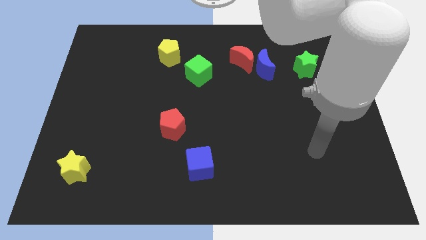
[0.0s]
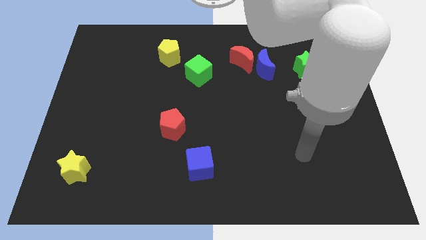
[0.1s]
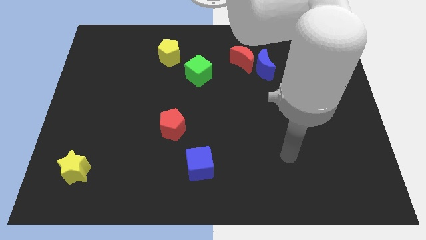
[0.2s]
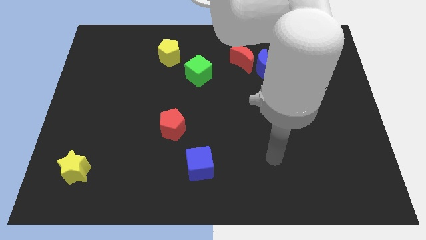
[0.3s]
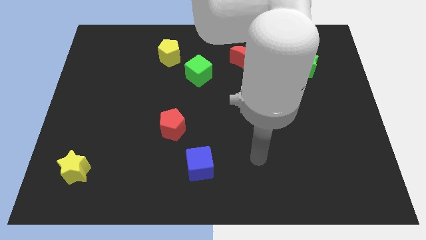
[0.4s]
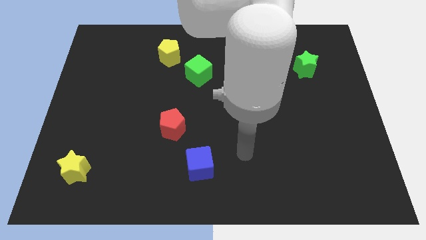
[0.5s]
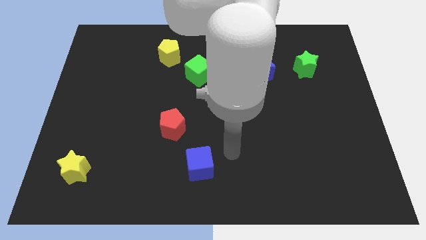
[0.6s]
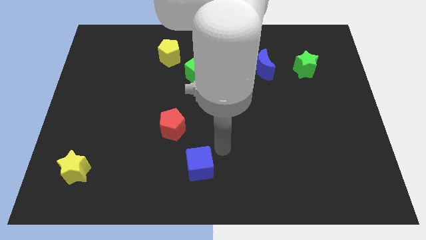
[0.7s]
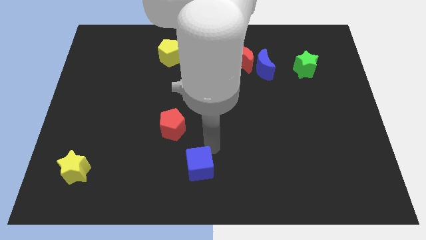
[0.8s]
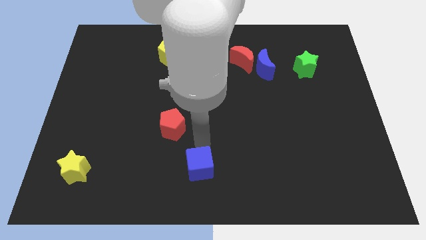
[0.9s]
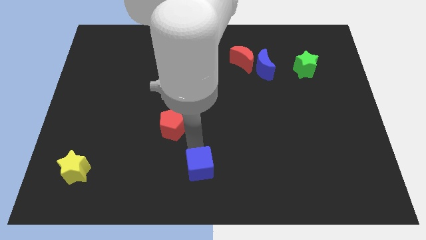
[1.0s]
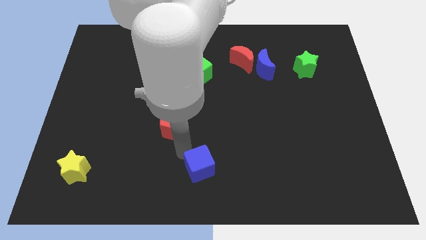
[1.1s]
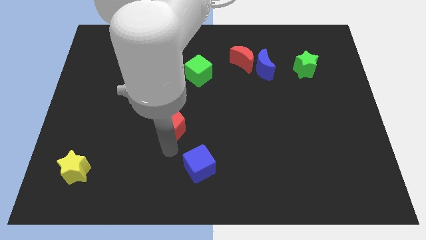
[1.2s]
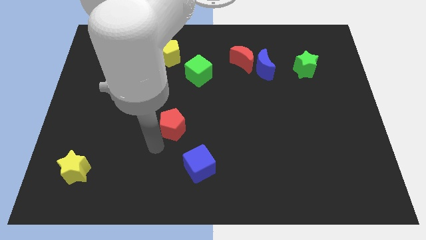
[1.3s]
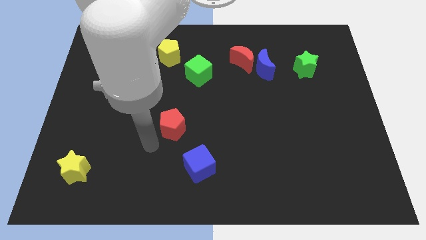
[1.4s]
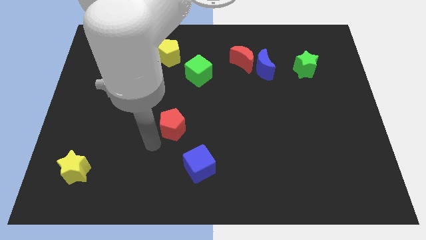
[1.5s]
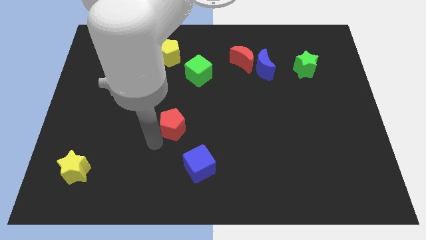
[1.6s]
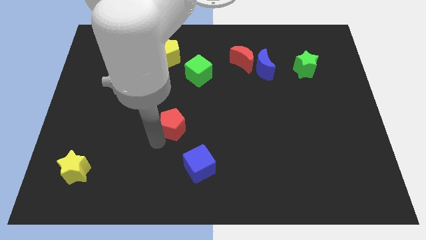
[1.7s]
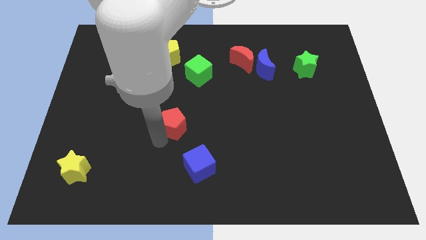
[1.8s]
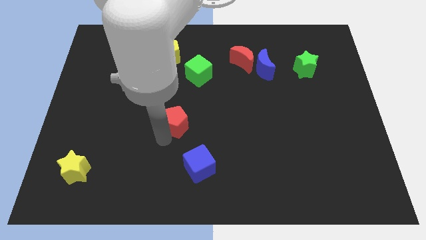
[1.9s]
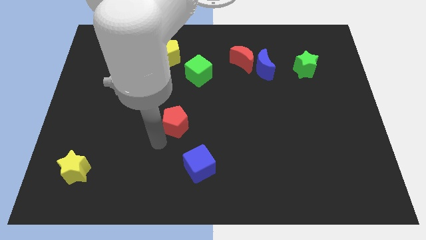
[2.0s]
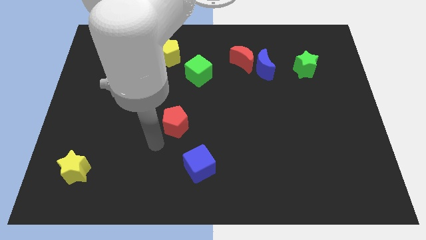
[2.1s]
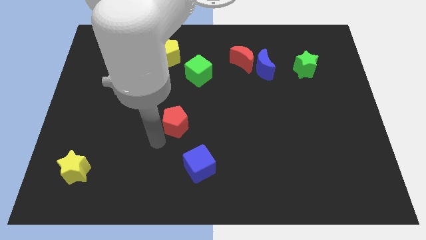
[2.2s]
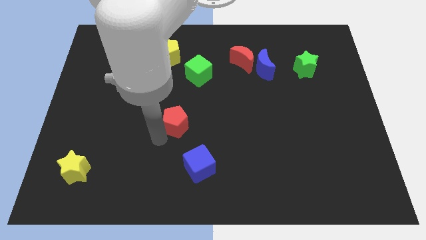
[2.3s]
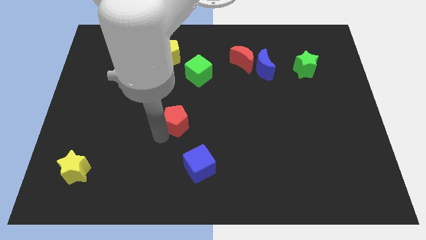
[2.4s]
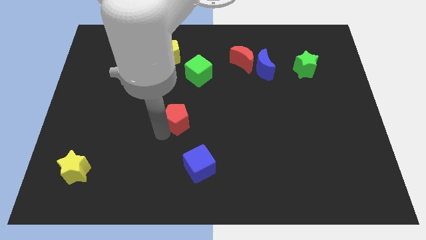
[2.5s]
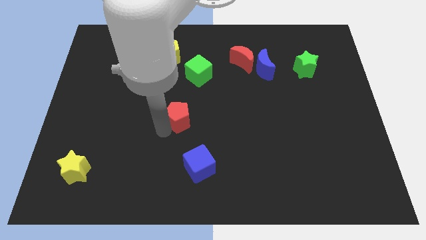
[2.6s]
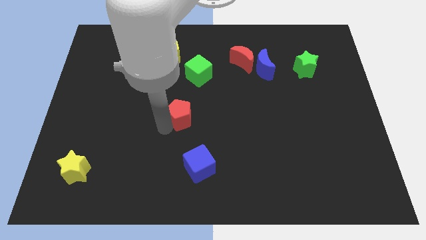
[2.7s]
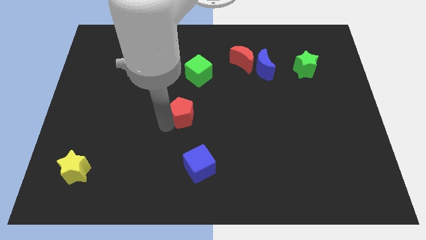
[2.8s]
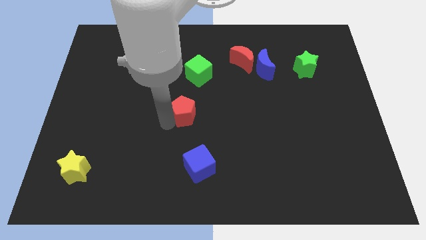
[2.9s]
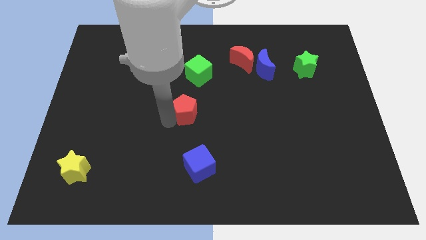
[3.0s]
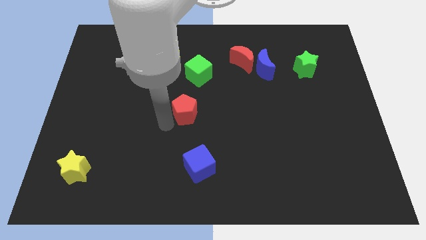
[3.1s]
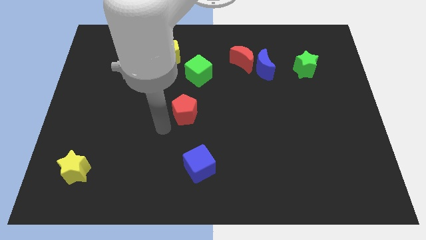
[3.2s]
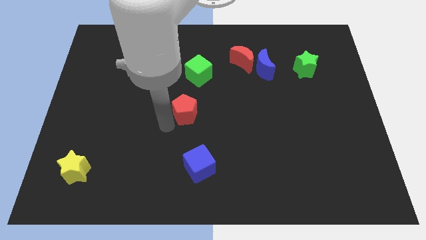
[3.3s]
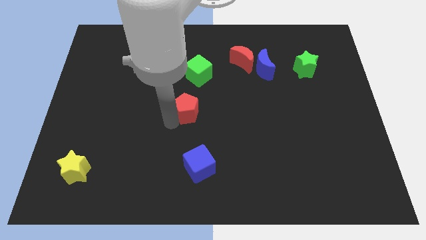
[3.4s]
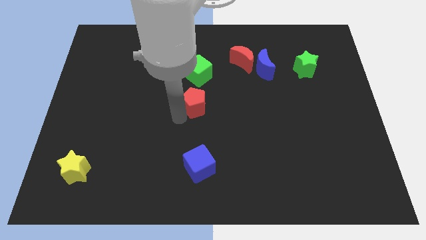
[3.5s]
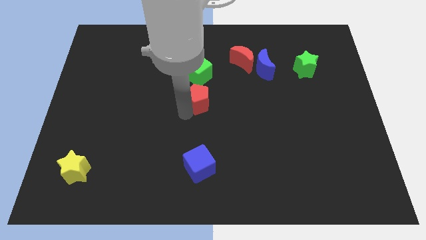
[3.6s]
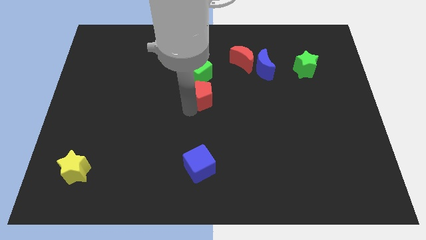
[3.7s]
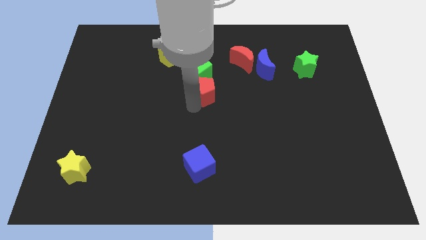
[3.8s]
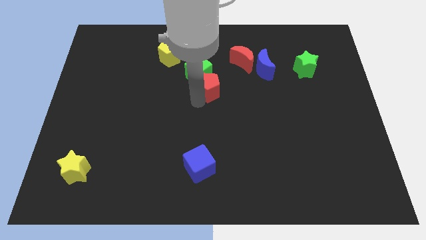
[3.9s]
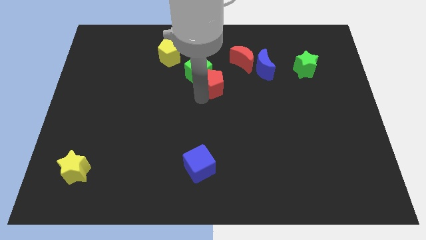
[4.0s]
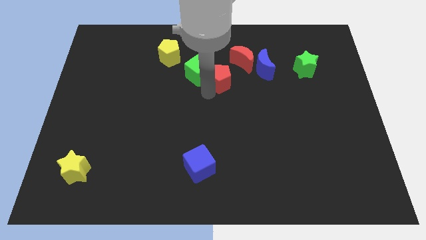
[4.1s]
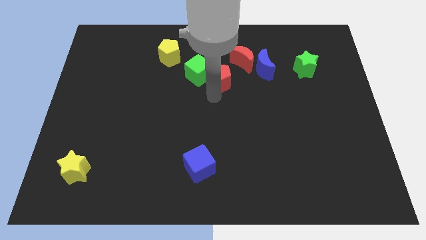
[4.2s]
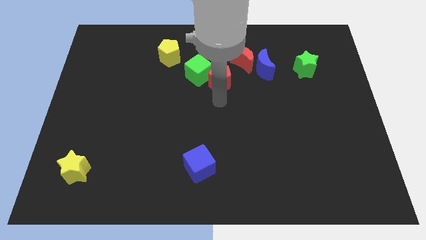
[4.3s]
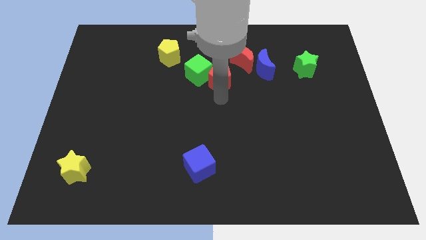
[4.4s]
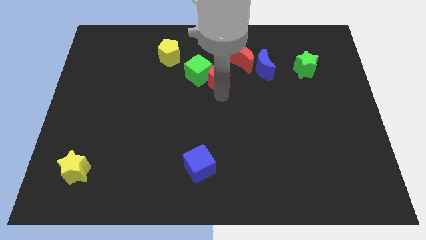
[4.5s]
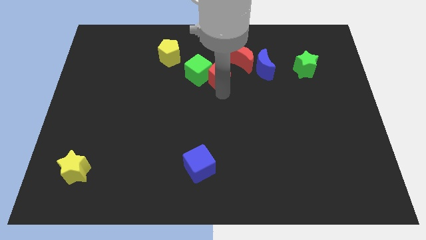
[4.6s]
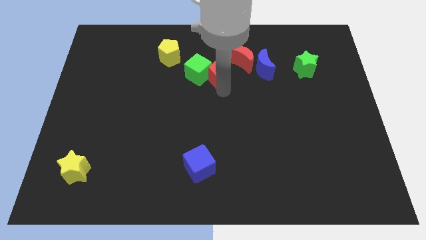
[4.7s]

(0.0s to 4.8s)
push the red pentagon diagonally up and to the right of the green cube

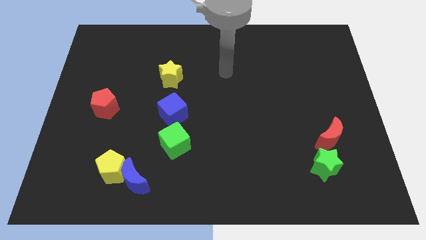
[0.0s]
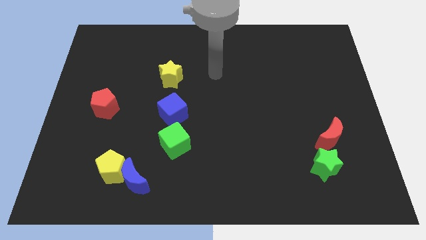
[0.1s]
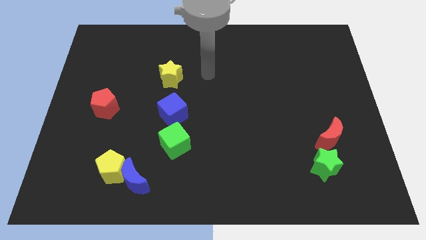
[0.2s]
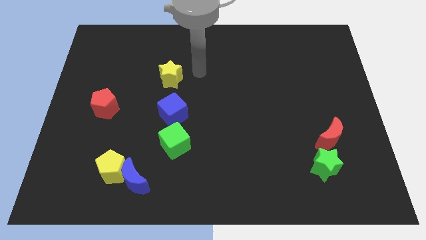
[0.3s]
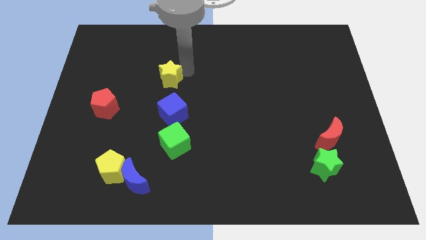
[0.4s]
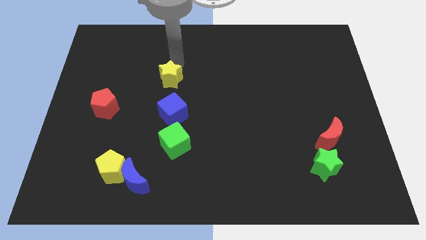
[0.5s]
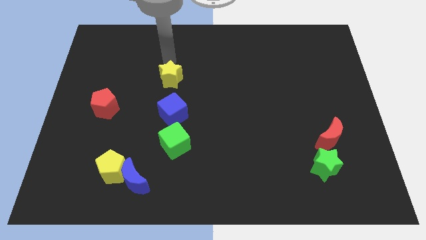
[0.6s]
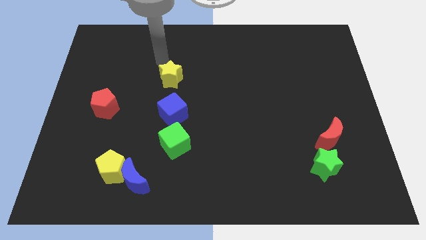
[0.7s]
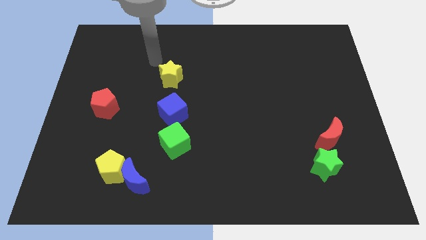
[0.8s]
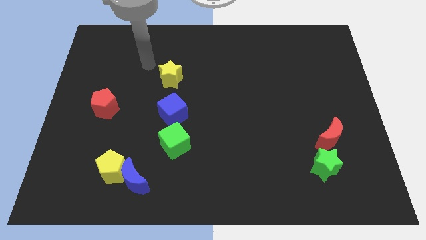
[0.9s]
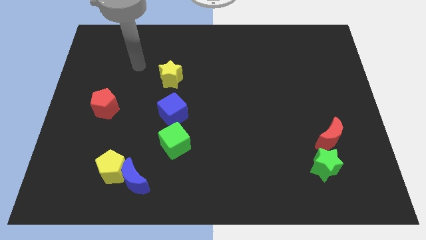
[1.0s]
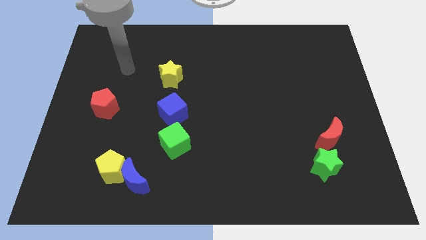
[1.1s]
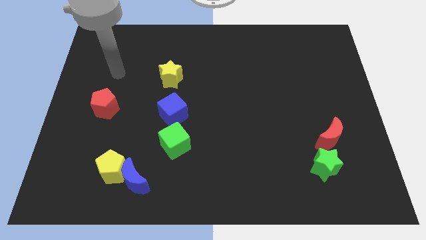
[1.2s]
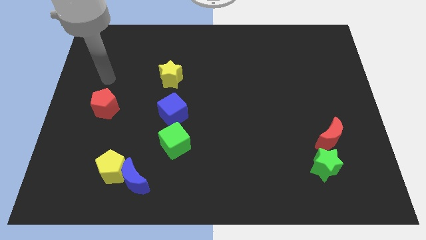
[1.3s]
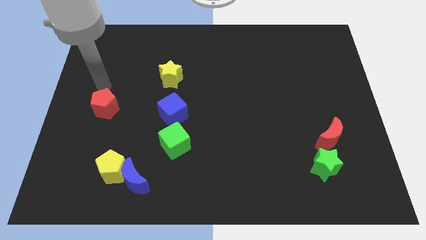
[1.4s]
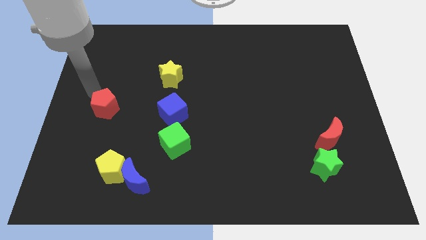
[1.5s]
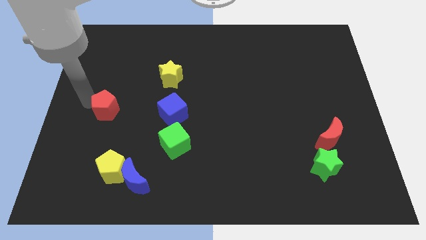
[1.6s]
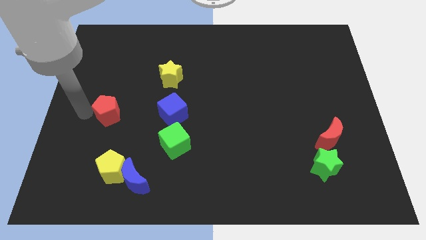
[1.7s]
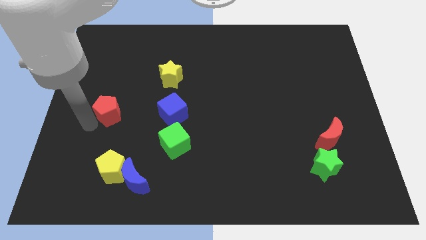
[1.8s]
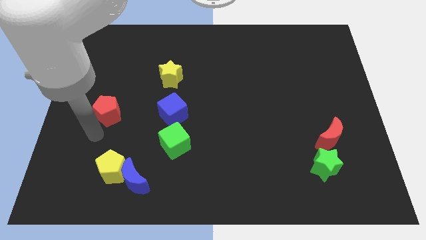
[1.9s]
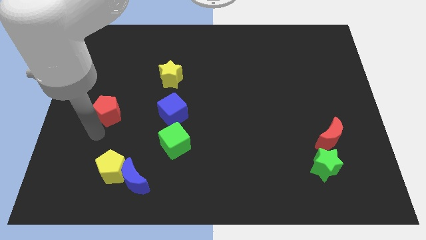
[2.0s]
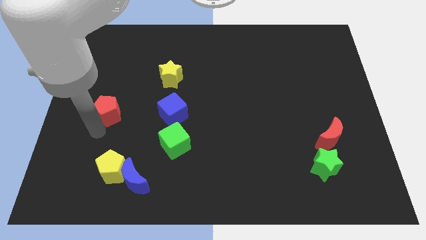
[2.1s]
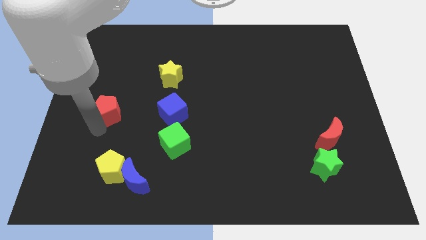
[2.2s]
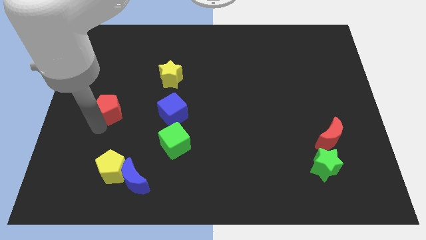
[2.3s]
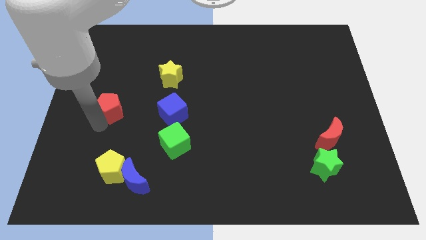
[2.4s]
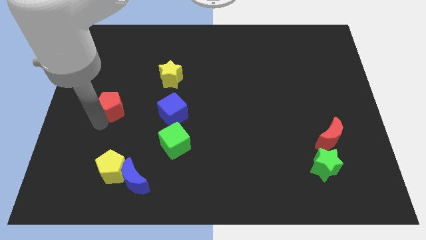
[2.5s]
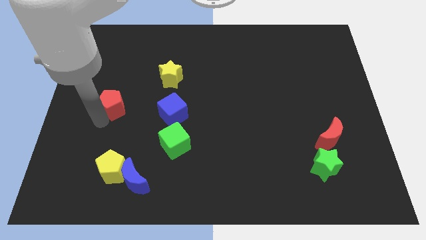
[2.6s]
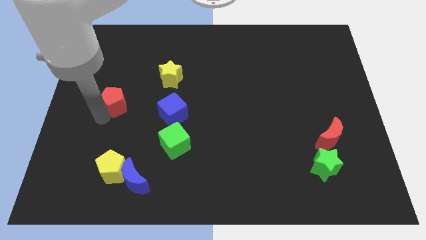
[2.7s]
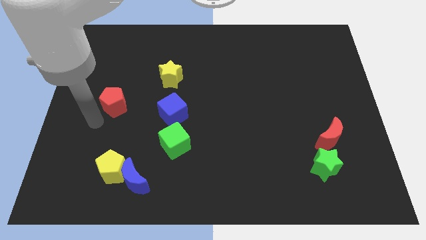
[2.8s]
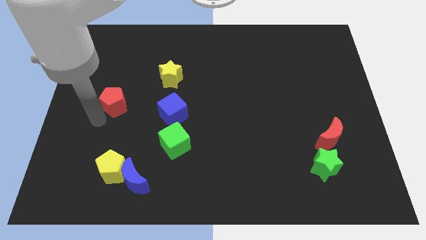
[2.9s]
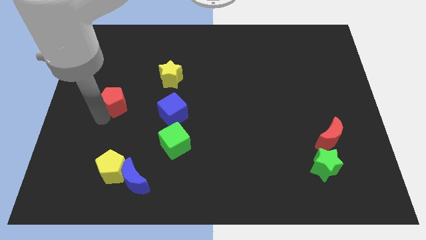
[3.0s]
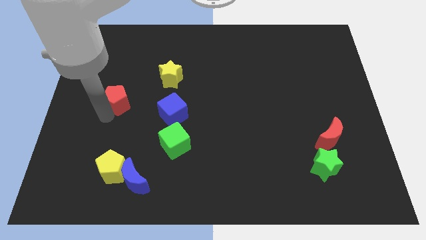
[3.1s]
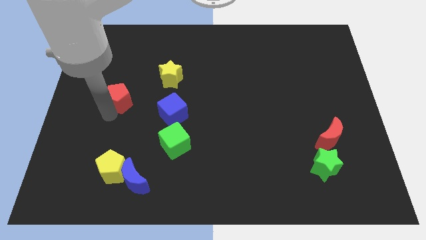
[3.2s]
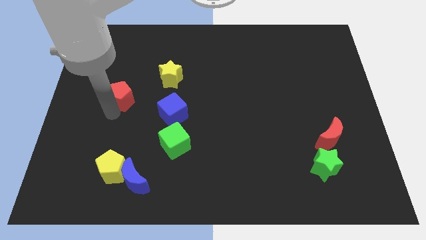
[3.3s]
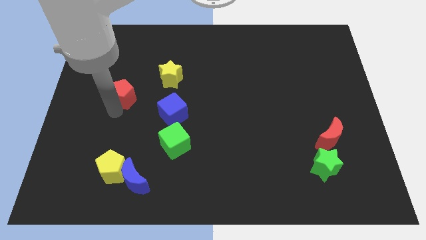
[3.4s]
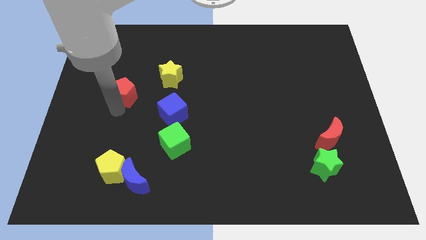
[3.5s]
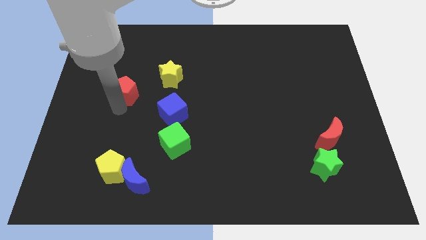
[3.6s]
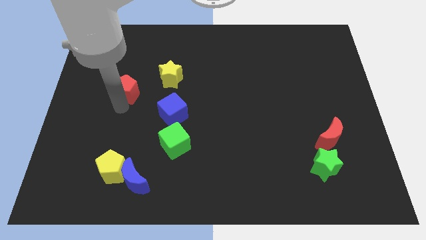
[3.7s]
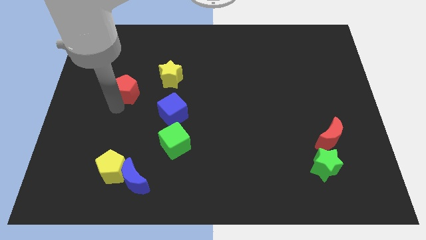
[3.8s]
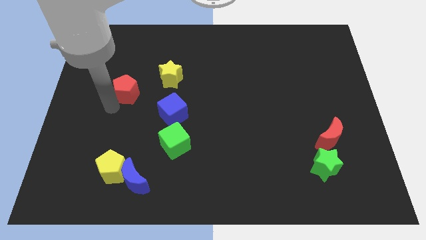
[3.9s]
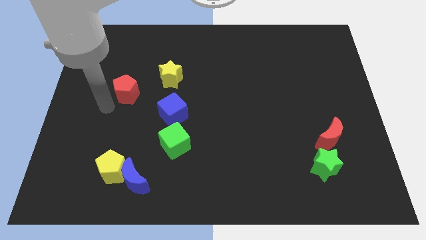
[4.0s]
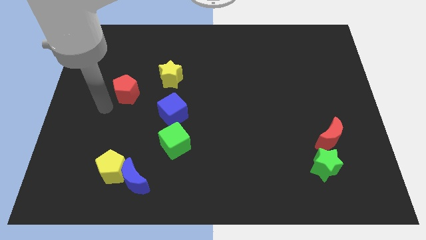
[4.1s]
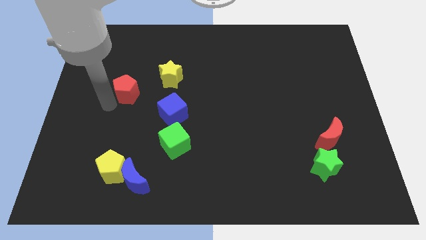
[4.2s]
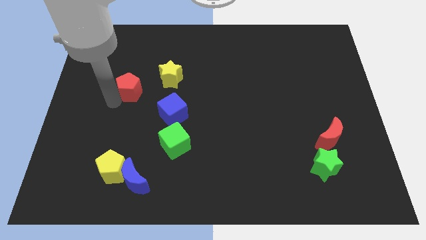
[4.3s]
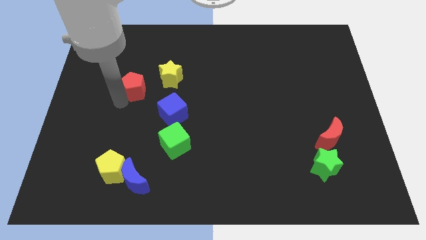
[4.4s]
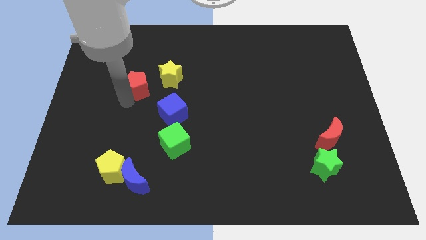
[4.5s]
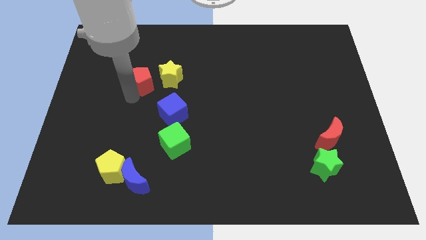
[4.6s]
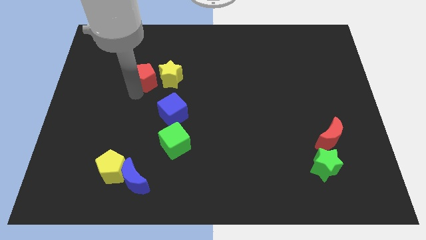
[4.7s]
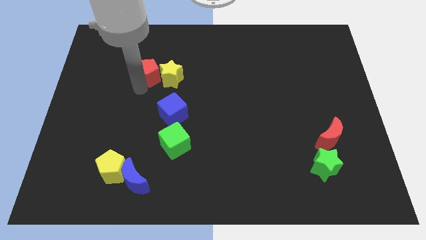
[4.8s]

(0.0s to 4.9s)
put the red pentagon to the top left side of the yellow star
